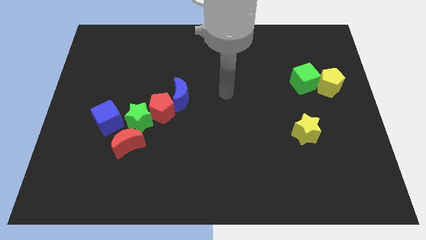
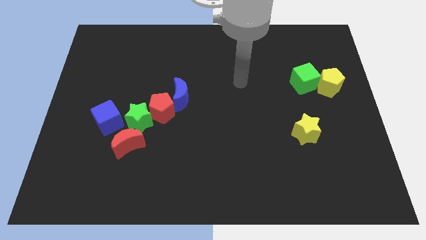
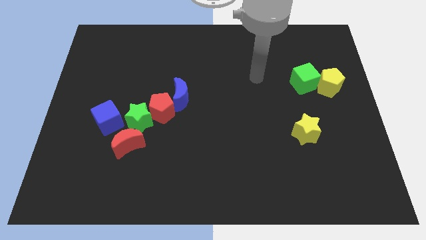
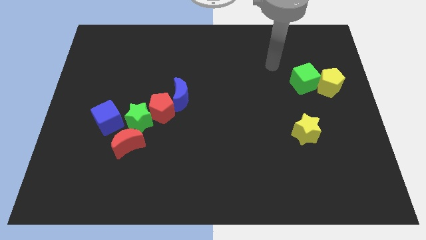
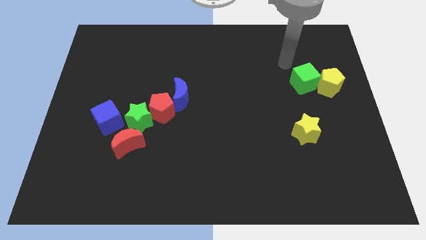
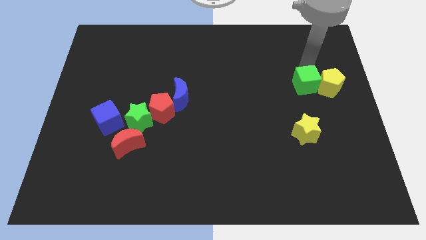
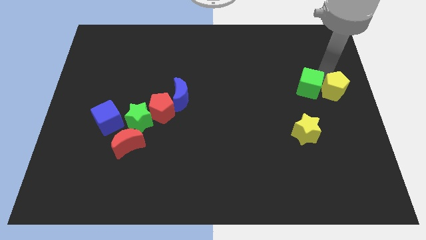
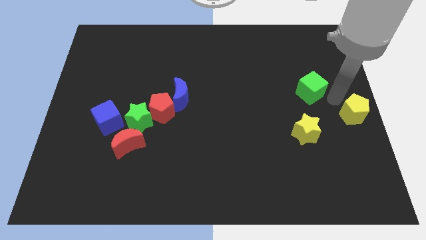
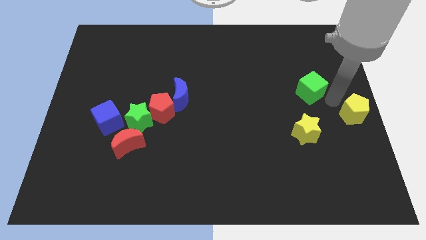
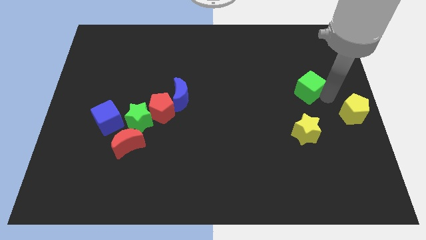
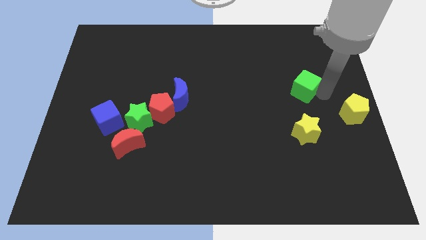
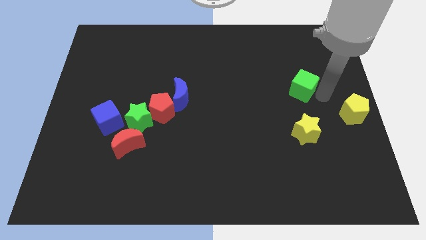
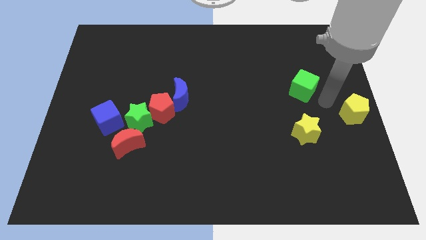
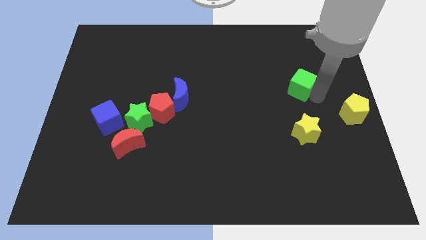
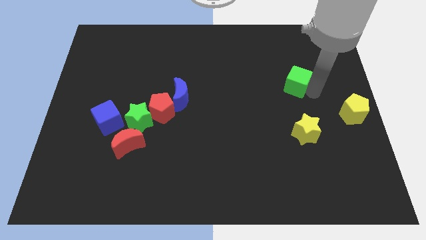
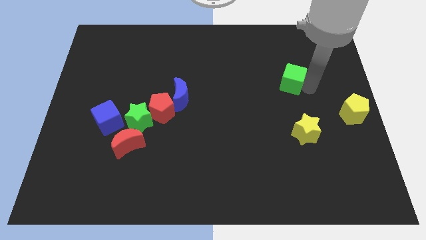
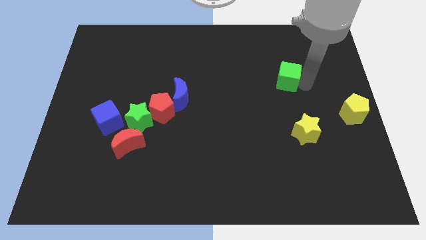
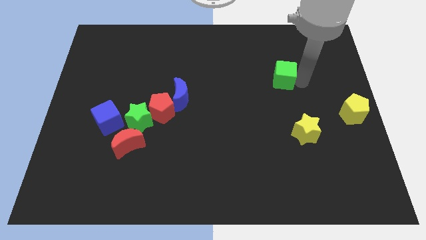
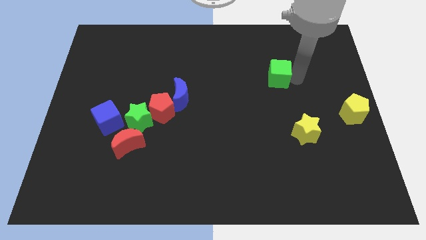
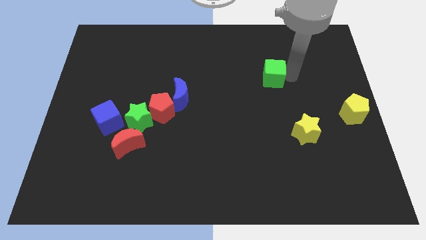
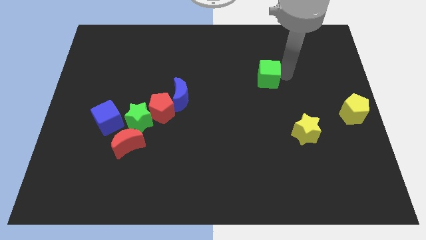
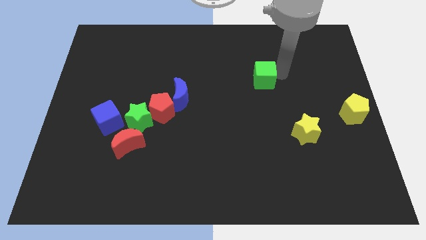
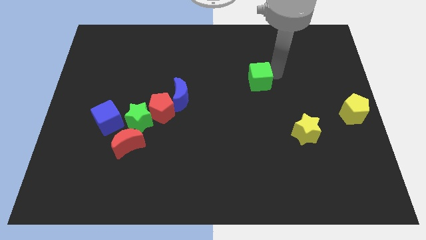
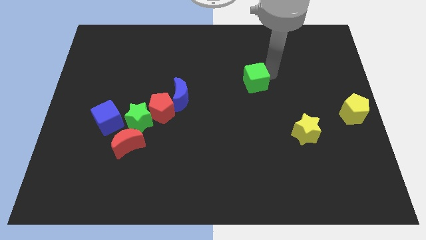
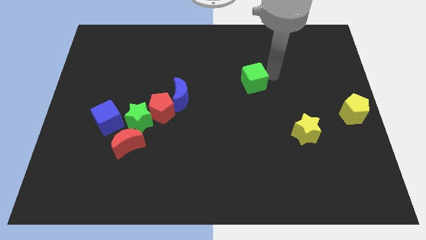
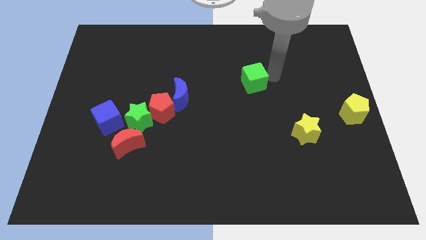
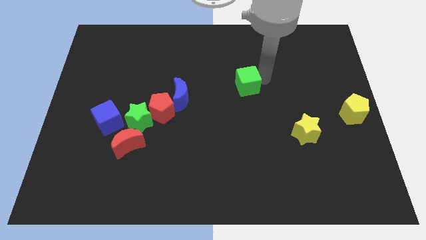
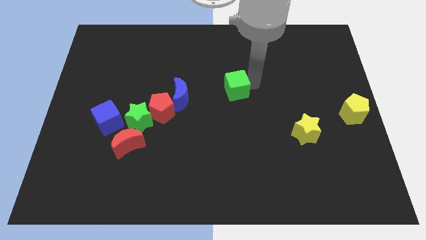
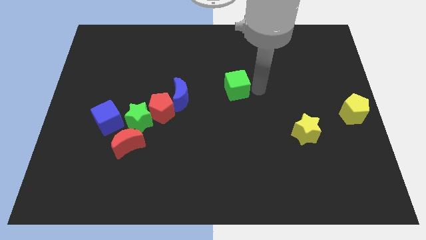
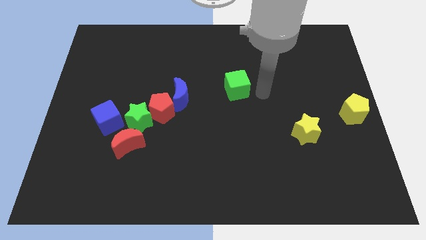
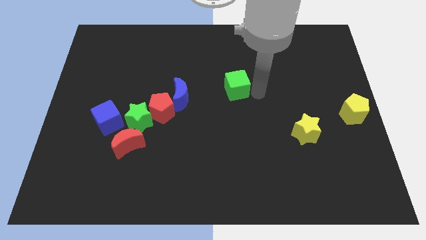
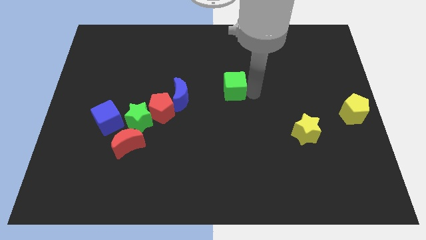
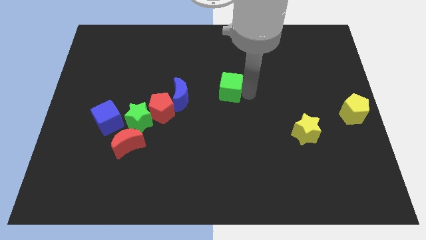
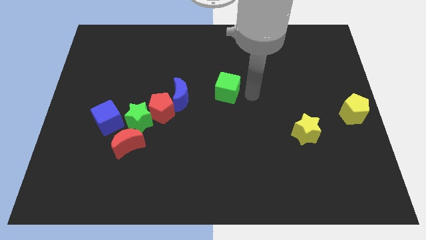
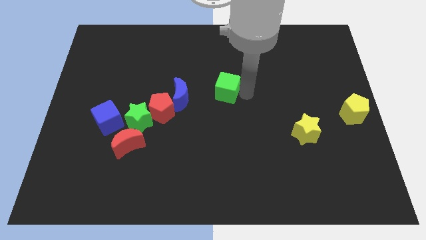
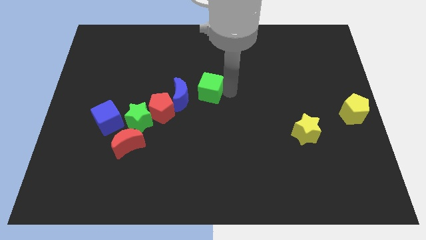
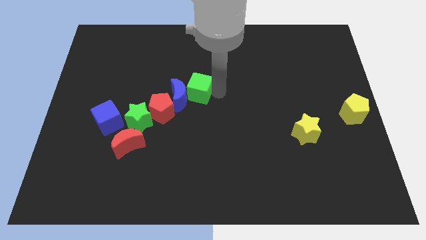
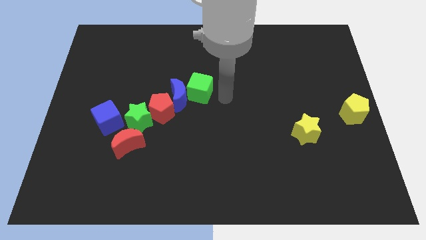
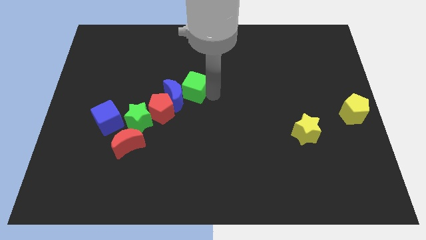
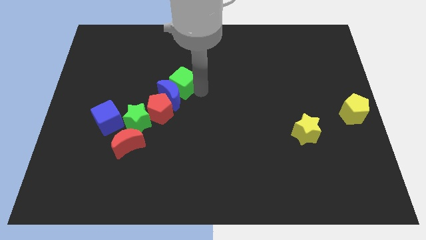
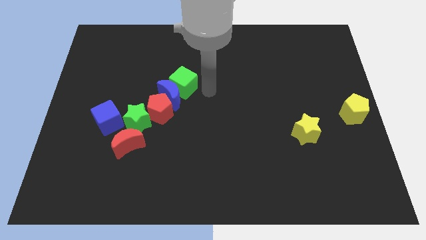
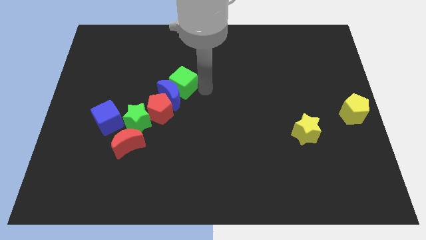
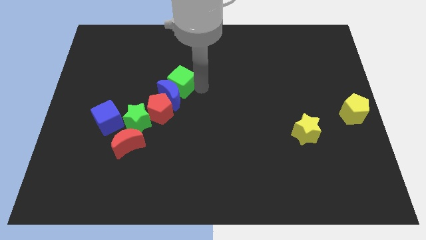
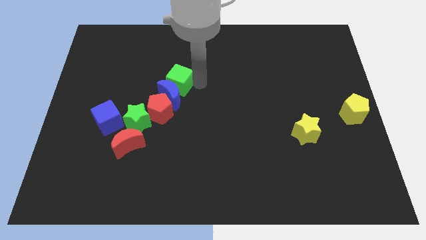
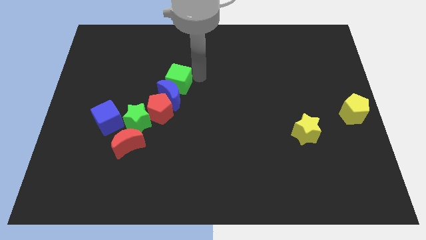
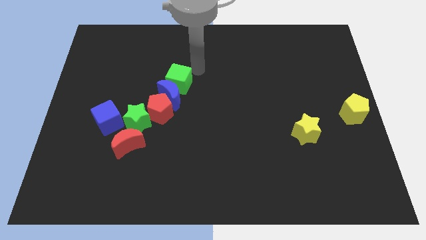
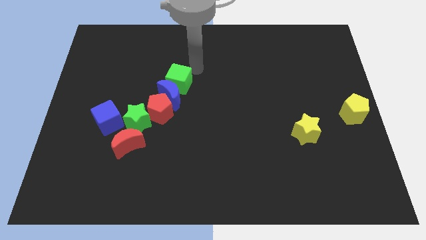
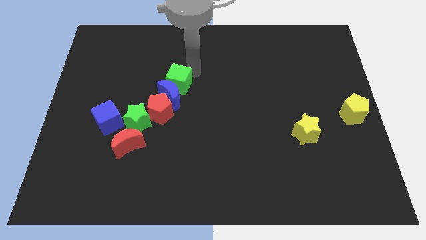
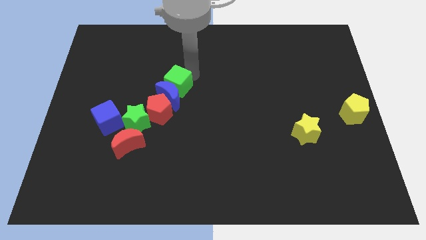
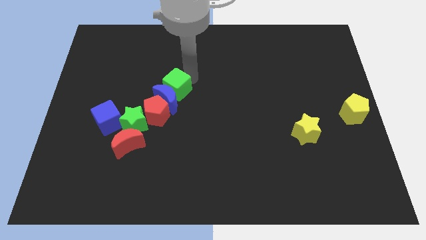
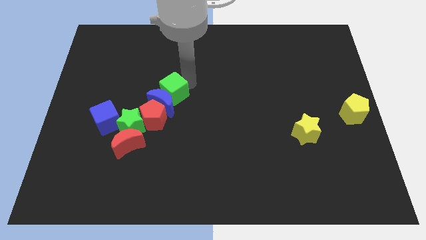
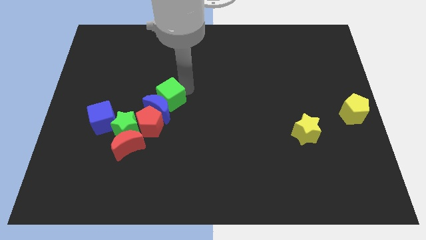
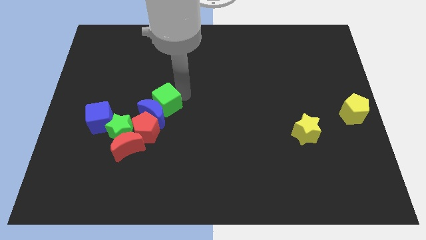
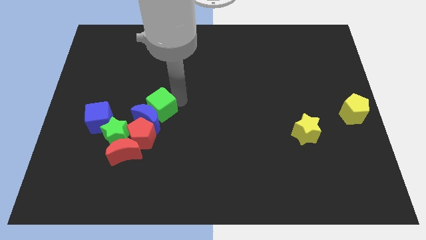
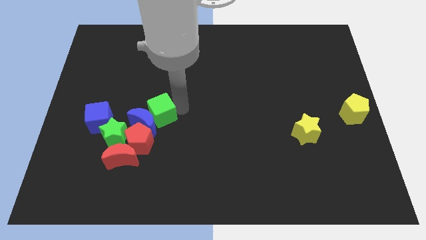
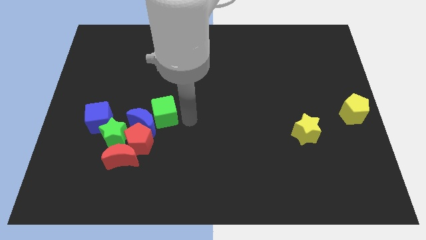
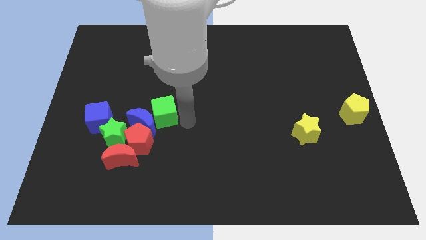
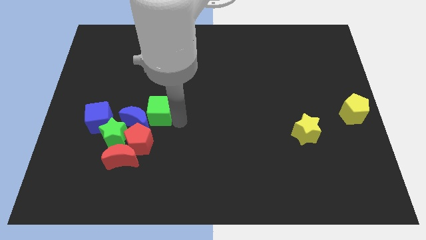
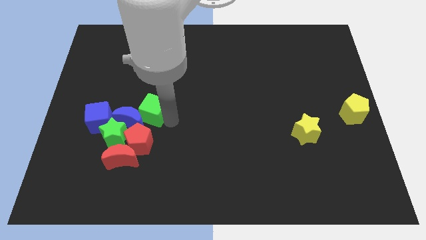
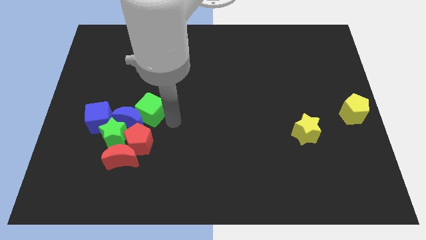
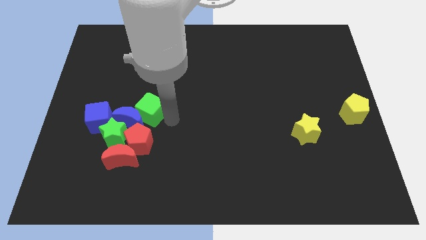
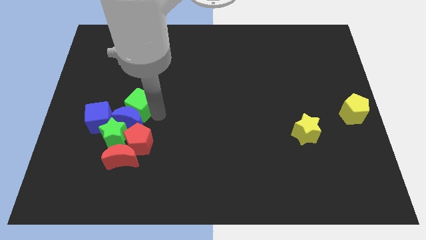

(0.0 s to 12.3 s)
move the green cube to the top right side of the blue cube

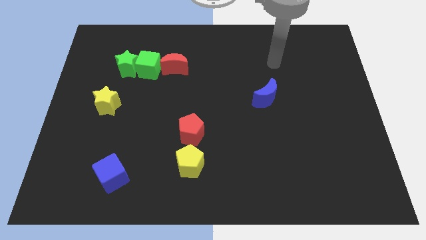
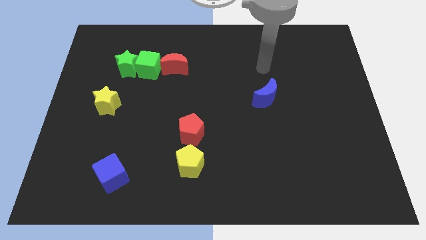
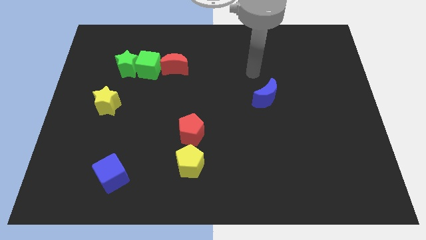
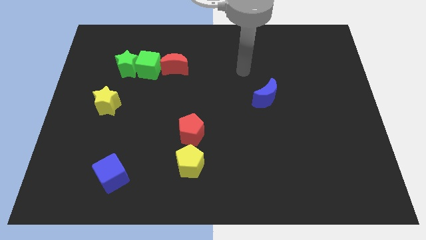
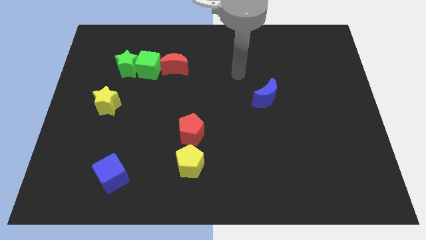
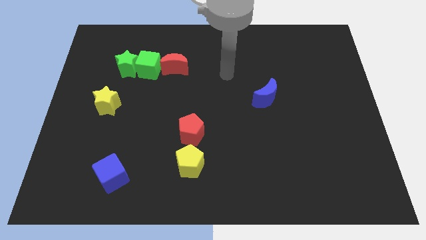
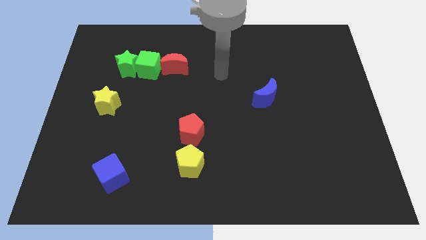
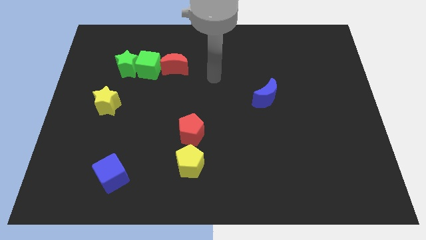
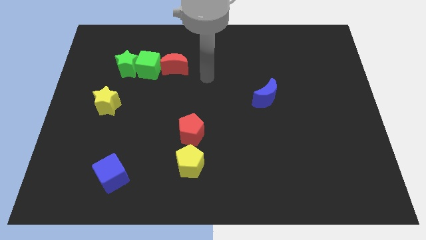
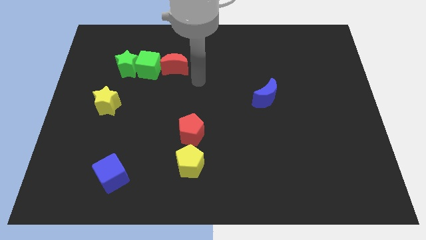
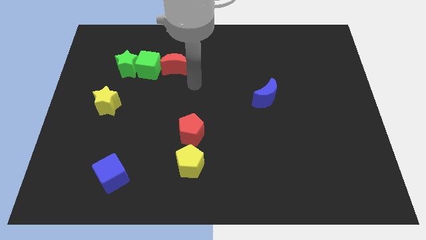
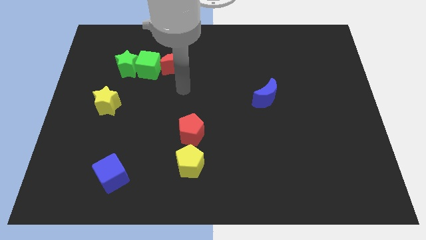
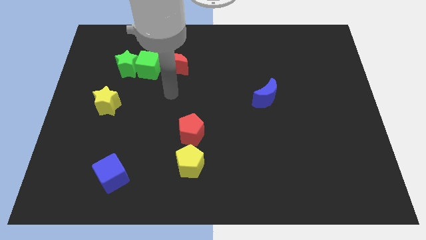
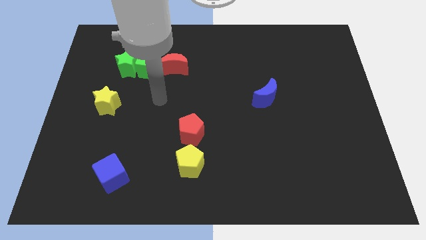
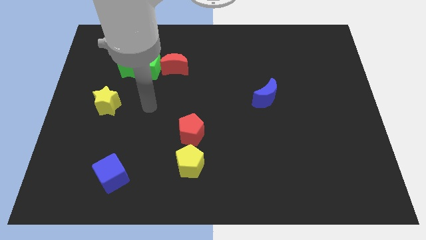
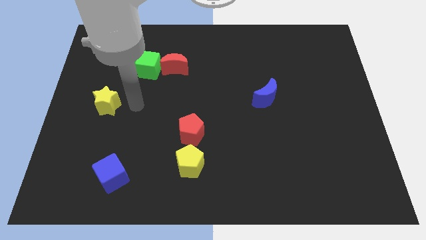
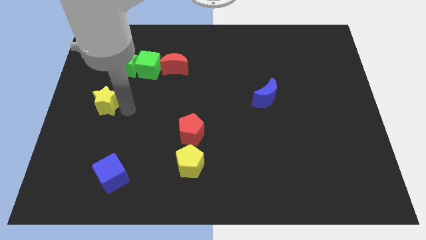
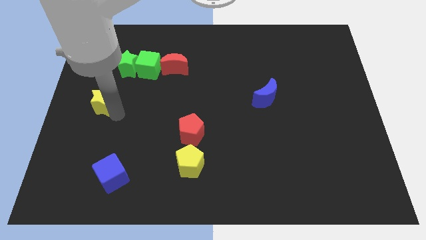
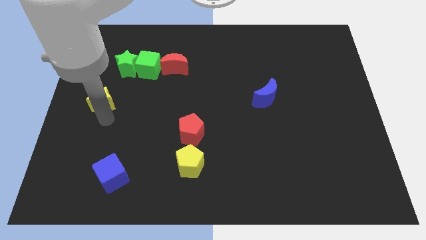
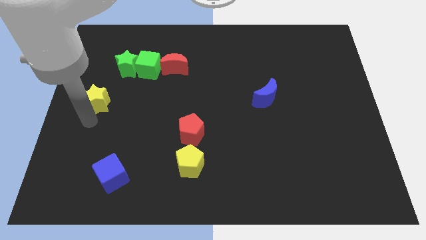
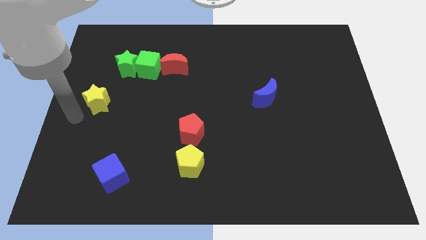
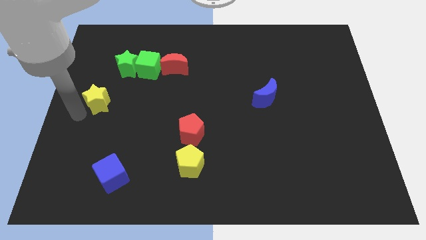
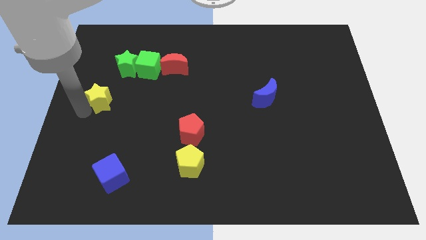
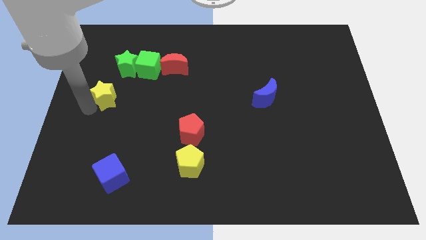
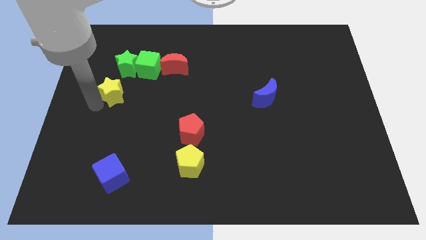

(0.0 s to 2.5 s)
push the yellow star to the bottom left of the green cube
